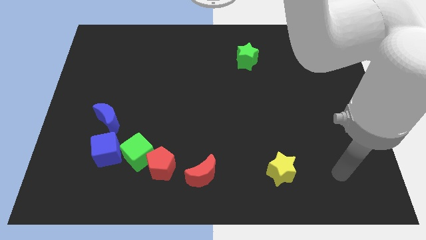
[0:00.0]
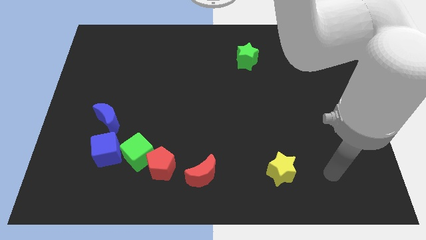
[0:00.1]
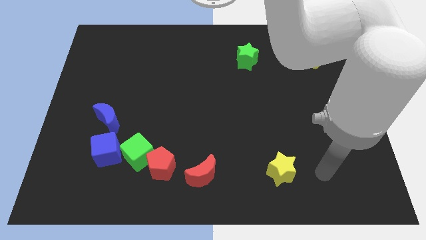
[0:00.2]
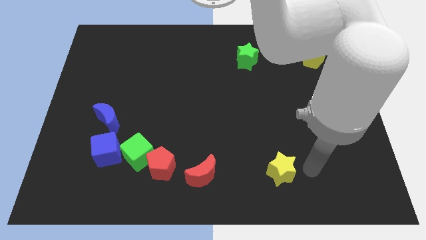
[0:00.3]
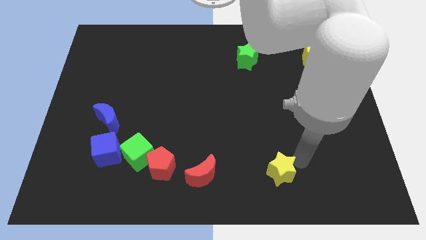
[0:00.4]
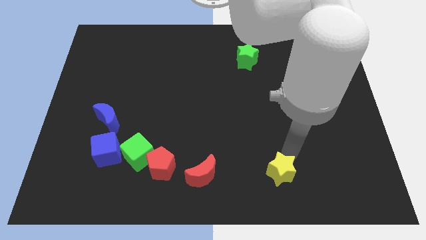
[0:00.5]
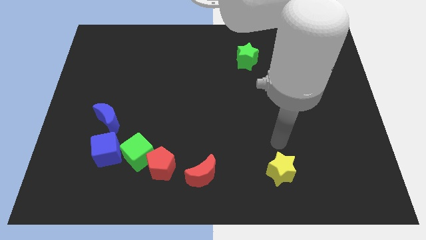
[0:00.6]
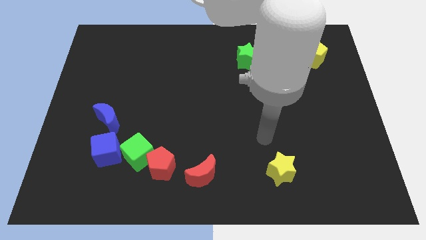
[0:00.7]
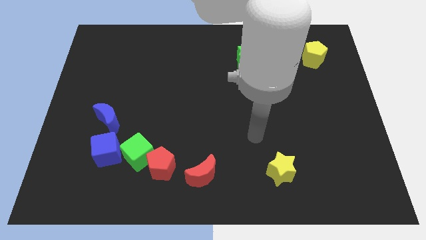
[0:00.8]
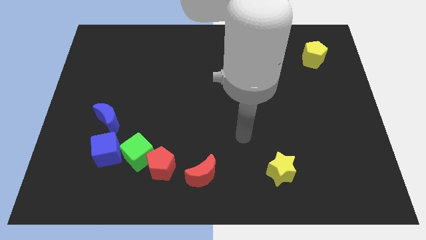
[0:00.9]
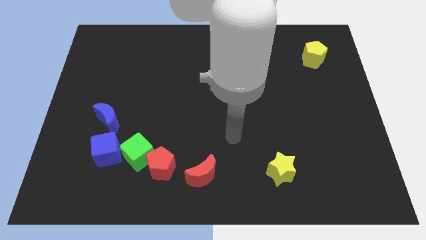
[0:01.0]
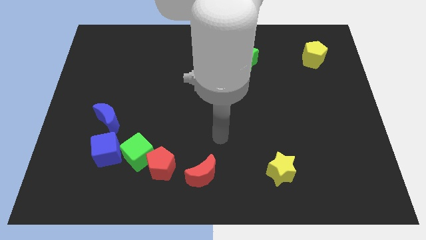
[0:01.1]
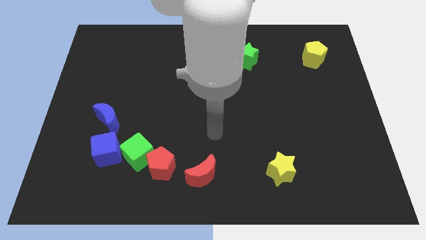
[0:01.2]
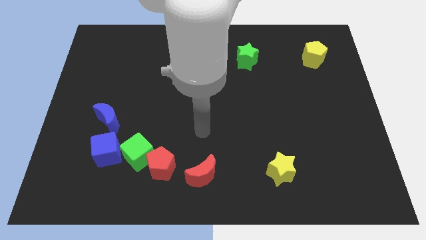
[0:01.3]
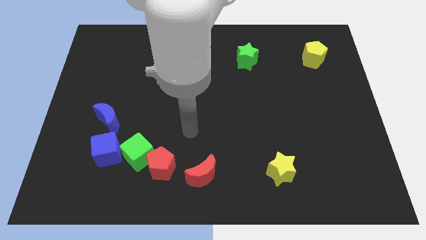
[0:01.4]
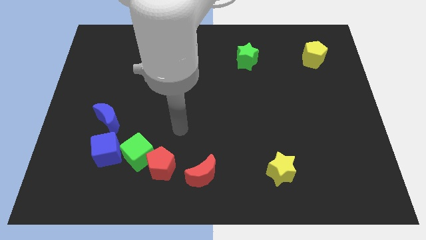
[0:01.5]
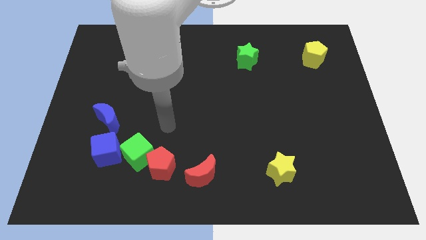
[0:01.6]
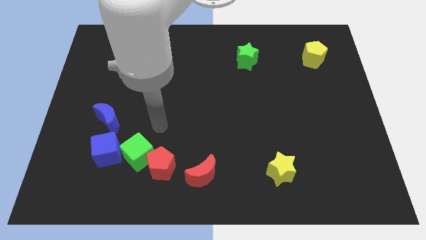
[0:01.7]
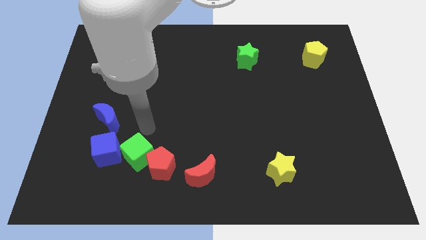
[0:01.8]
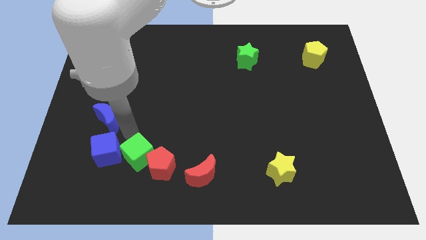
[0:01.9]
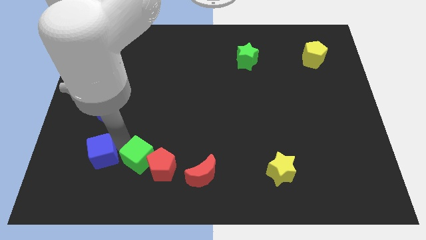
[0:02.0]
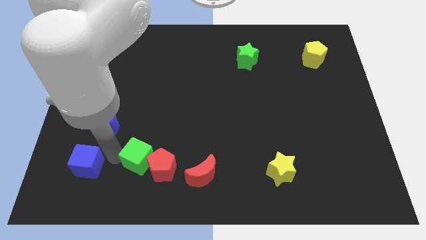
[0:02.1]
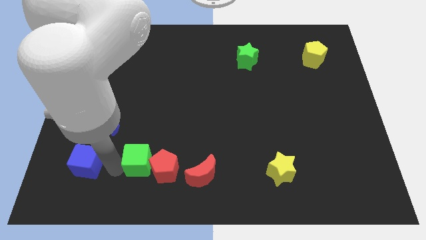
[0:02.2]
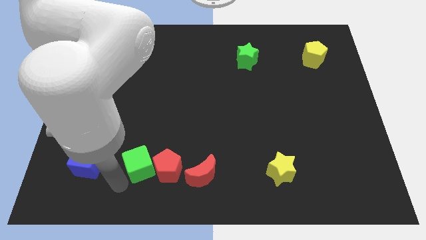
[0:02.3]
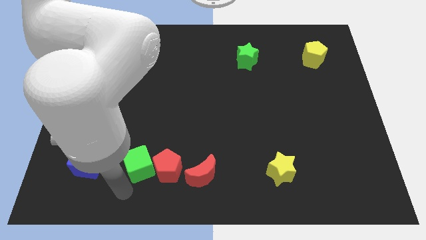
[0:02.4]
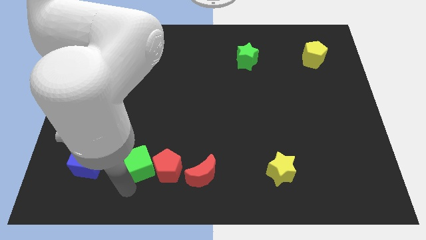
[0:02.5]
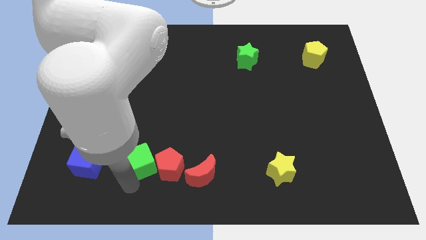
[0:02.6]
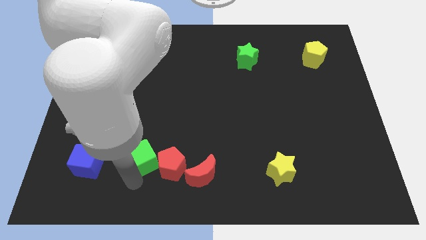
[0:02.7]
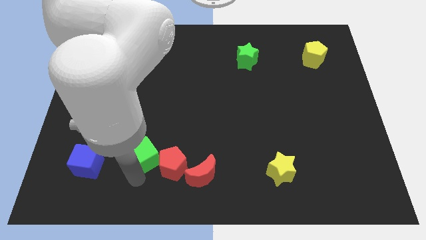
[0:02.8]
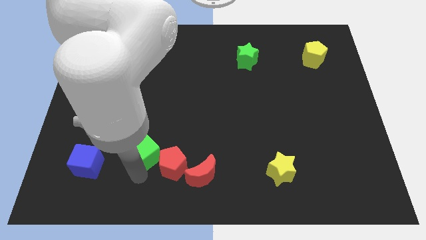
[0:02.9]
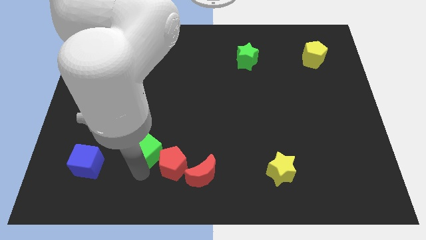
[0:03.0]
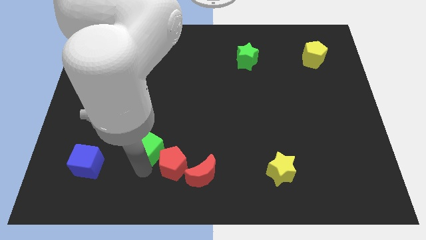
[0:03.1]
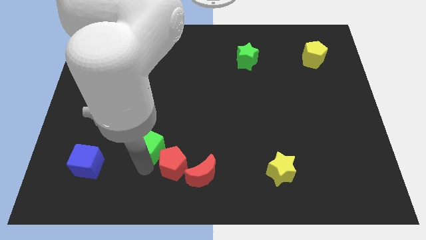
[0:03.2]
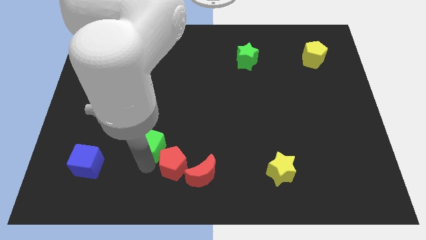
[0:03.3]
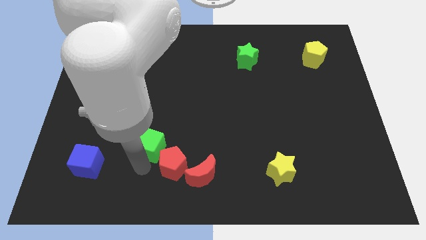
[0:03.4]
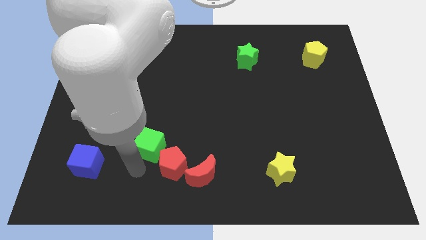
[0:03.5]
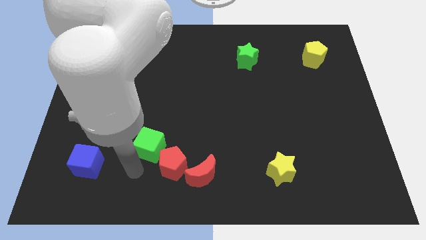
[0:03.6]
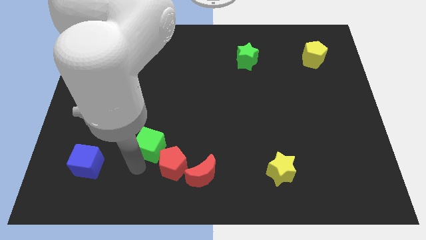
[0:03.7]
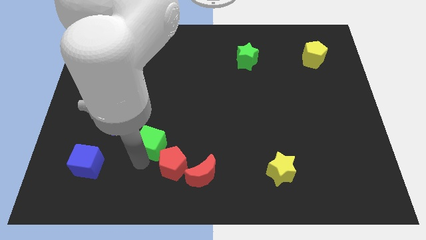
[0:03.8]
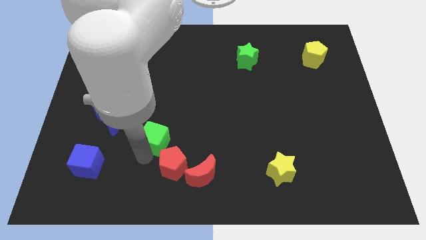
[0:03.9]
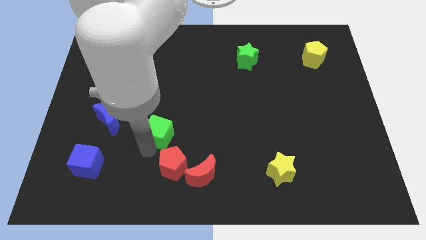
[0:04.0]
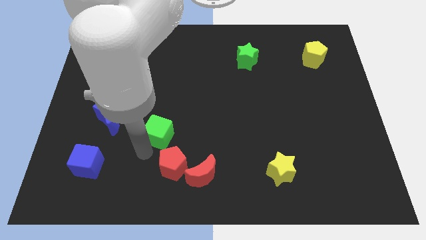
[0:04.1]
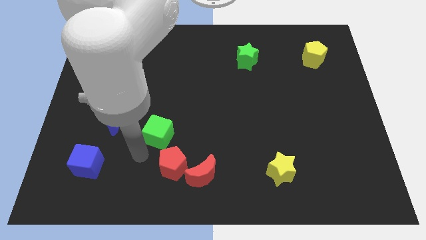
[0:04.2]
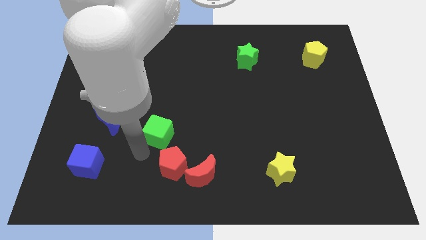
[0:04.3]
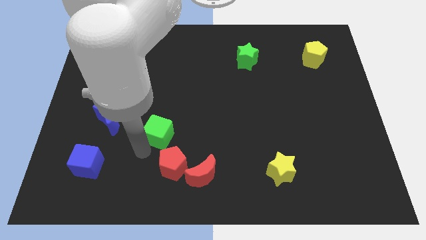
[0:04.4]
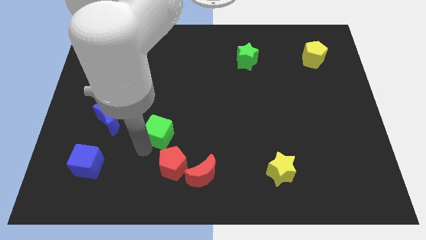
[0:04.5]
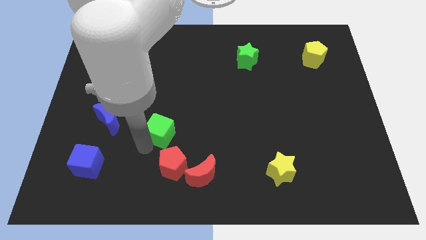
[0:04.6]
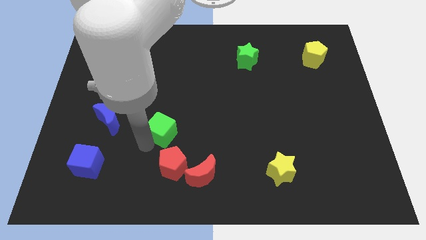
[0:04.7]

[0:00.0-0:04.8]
move the green cube away from the red pentagon and blue cube

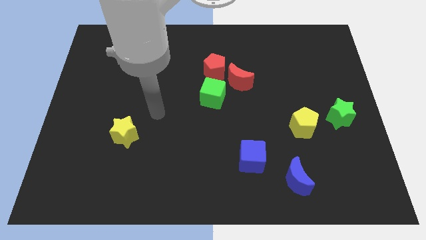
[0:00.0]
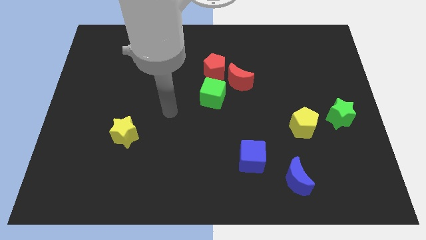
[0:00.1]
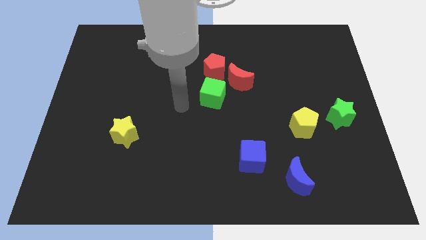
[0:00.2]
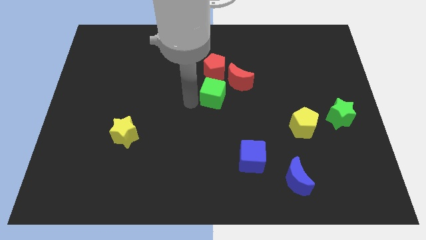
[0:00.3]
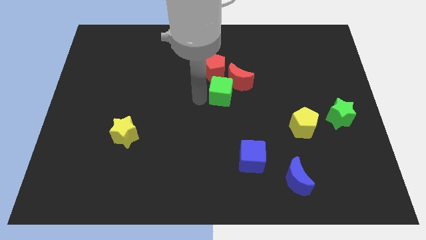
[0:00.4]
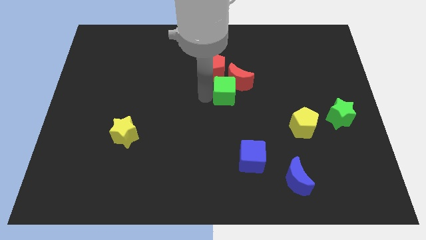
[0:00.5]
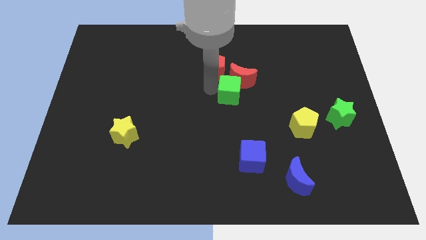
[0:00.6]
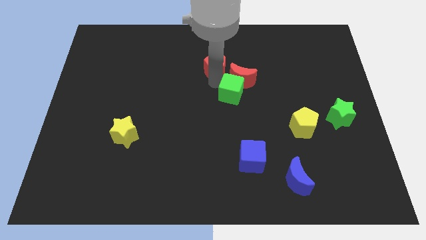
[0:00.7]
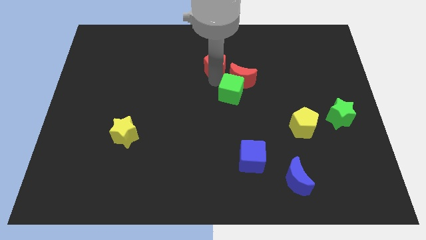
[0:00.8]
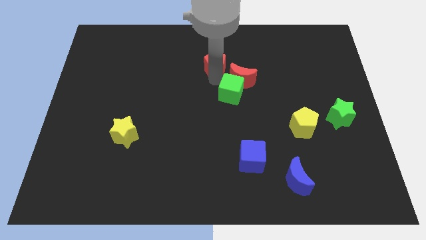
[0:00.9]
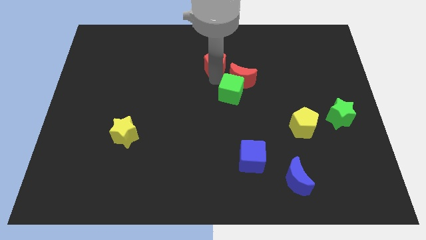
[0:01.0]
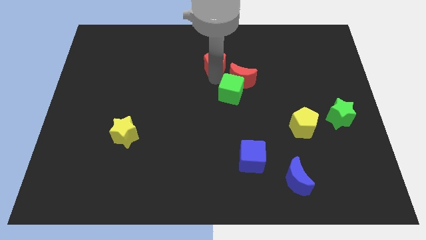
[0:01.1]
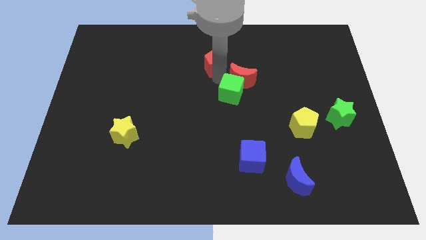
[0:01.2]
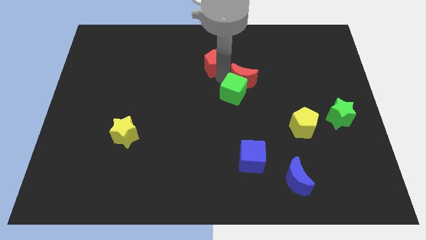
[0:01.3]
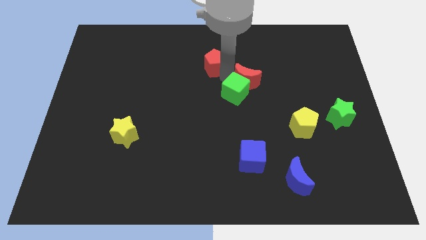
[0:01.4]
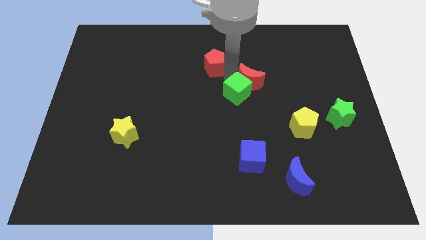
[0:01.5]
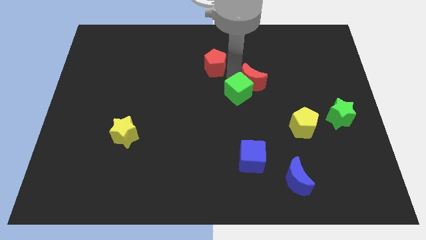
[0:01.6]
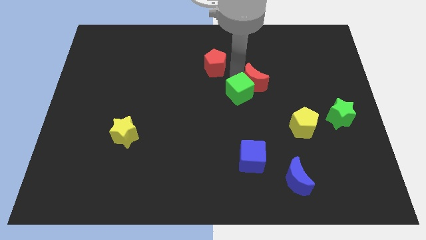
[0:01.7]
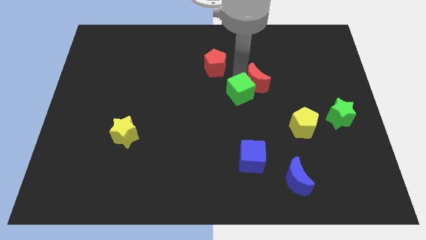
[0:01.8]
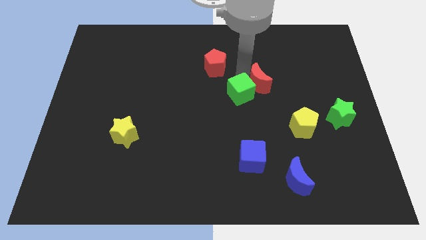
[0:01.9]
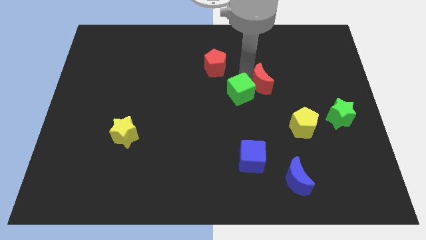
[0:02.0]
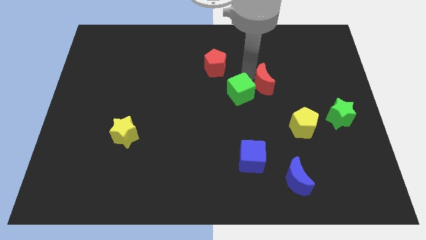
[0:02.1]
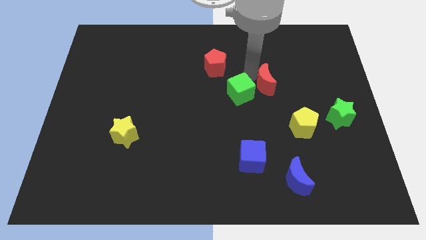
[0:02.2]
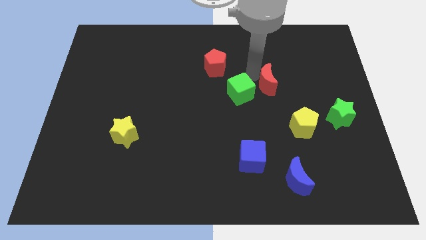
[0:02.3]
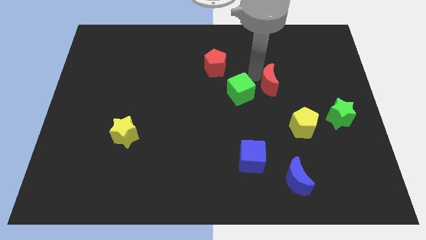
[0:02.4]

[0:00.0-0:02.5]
move the red moon away from the red pentagon and green cube

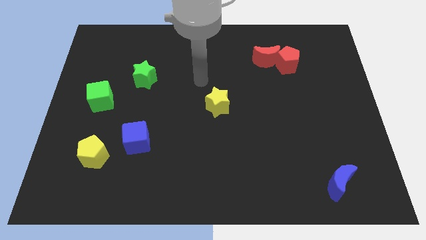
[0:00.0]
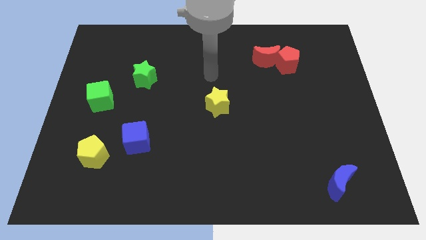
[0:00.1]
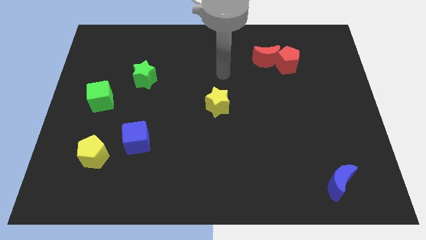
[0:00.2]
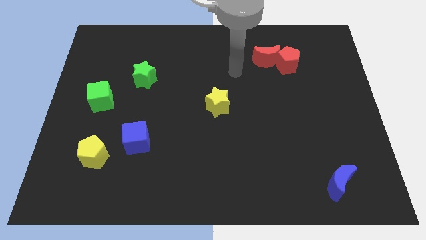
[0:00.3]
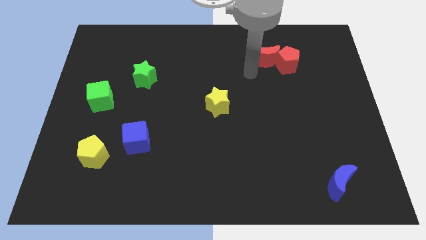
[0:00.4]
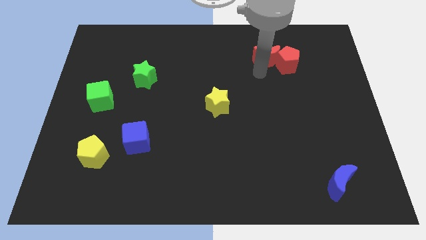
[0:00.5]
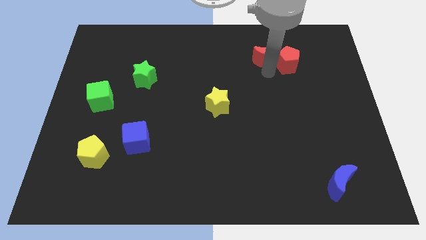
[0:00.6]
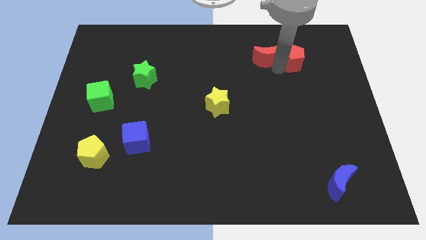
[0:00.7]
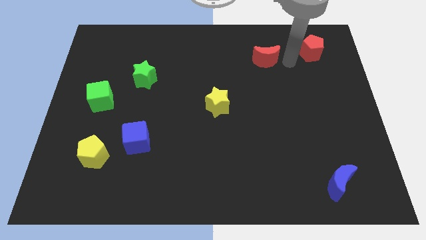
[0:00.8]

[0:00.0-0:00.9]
pull the red moon apart from the red pentagon

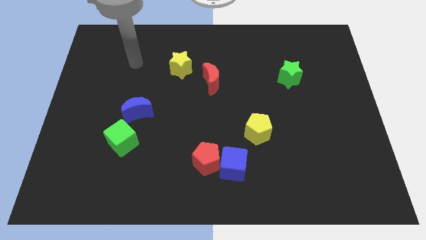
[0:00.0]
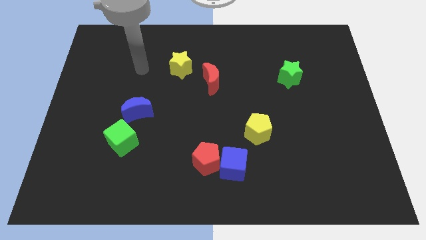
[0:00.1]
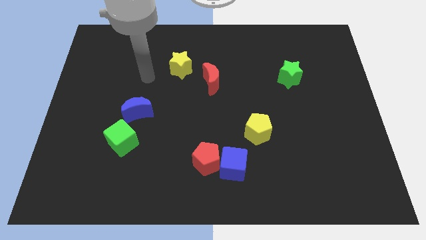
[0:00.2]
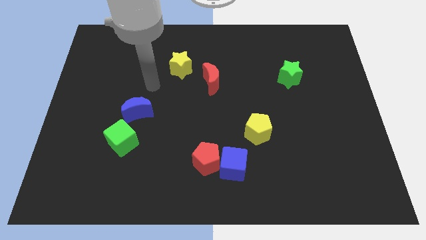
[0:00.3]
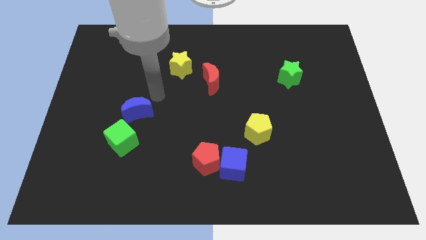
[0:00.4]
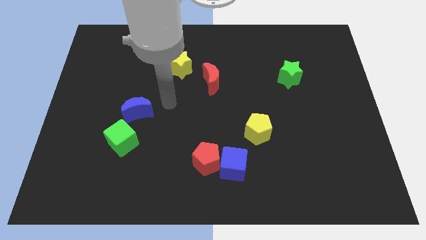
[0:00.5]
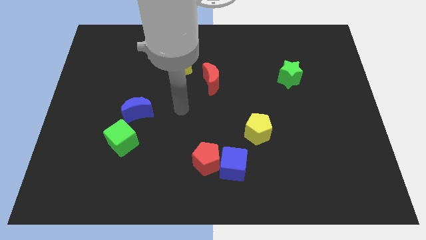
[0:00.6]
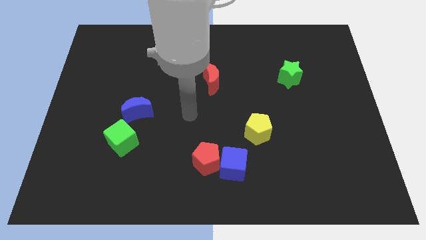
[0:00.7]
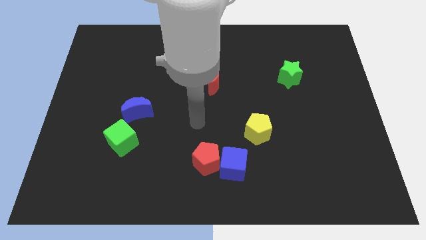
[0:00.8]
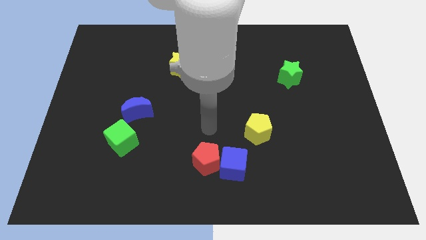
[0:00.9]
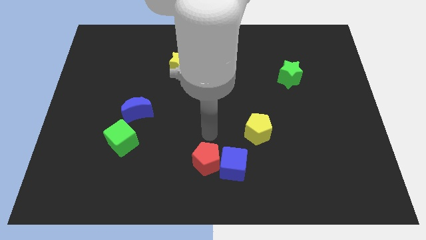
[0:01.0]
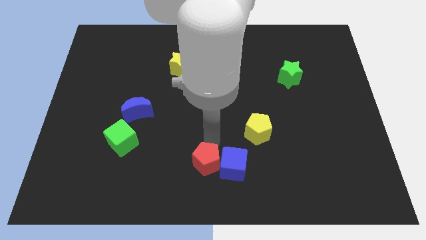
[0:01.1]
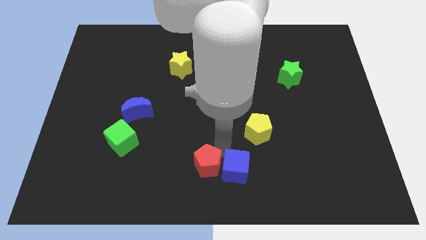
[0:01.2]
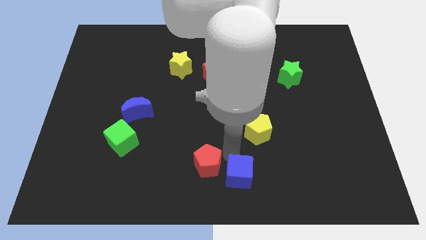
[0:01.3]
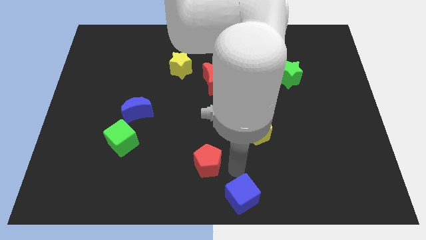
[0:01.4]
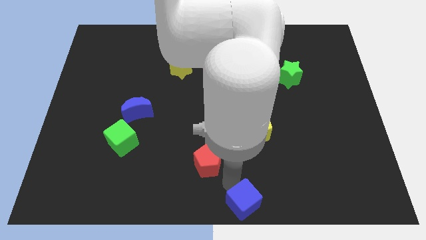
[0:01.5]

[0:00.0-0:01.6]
pull the red pentagon apart from the blue cube
